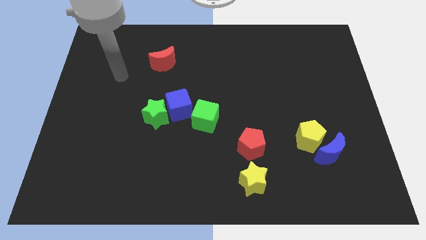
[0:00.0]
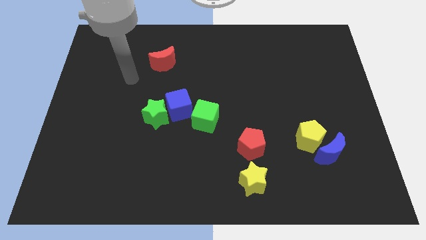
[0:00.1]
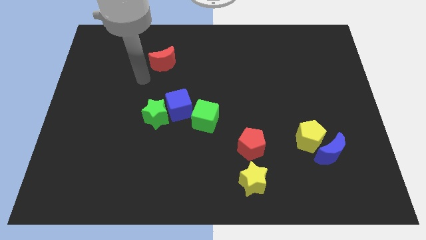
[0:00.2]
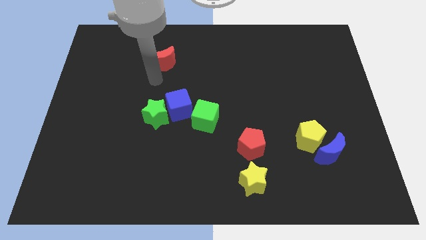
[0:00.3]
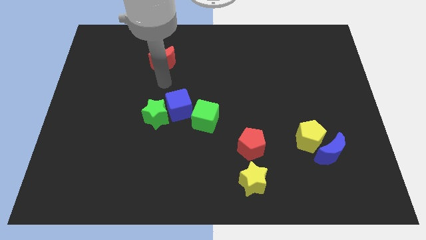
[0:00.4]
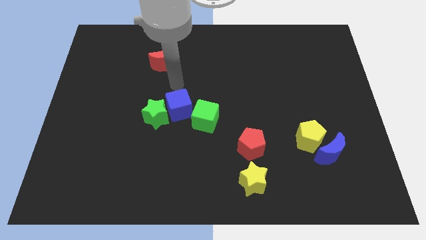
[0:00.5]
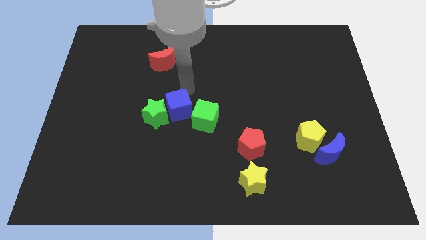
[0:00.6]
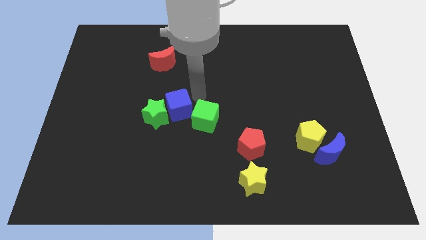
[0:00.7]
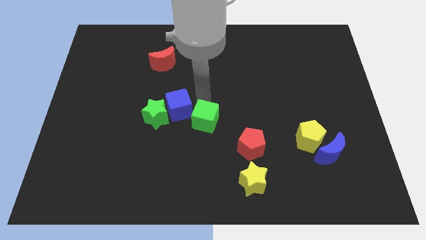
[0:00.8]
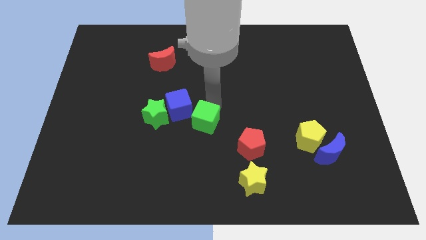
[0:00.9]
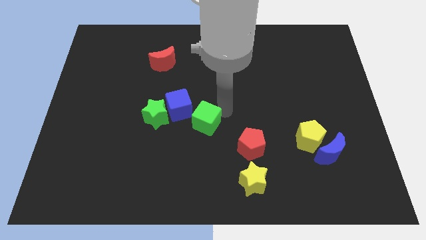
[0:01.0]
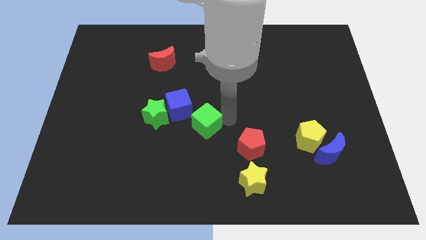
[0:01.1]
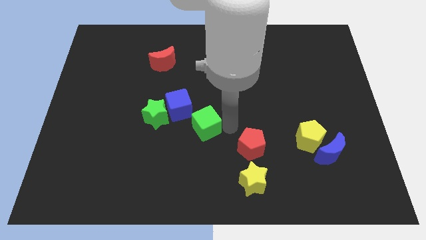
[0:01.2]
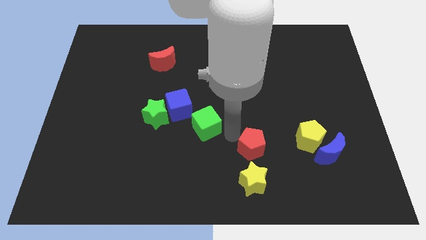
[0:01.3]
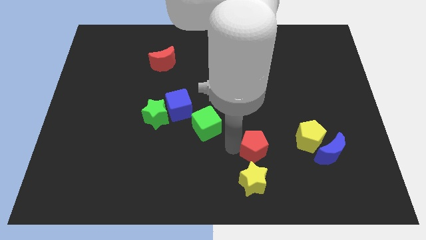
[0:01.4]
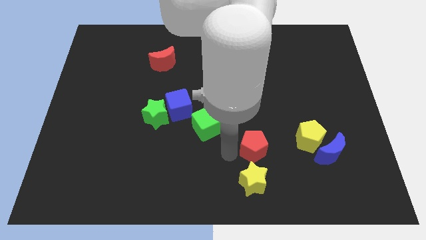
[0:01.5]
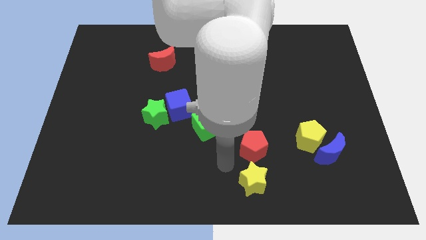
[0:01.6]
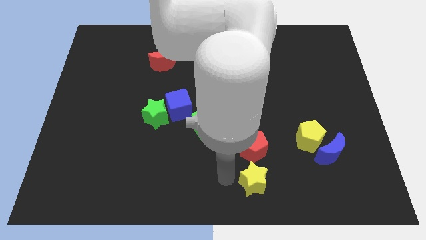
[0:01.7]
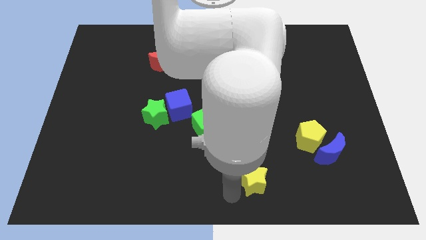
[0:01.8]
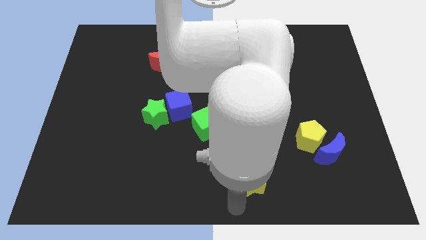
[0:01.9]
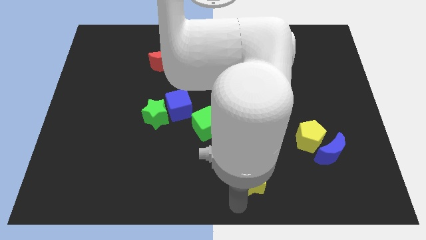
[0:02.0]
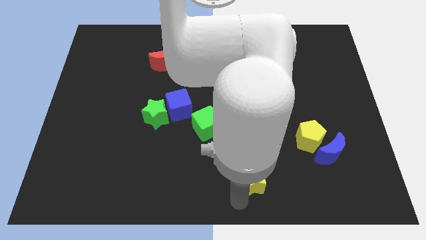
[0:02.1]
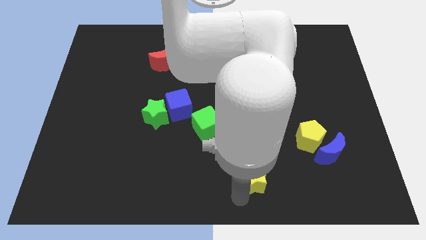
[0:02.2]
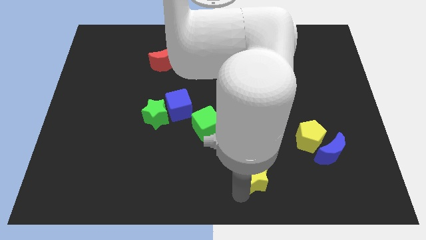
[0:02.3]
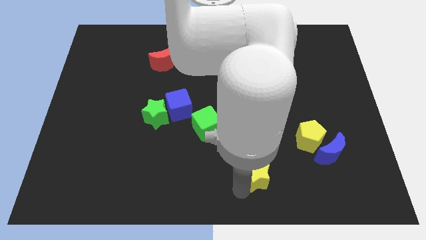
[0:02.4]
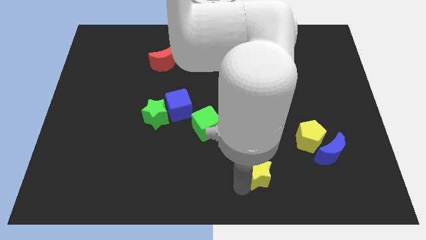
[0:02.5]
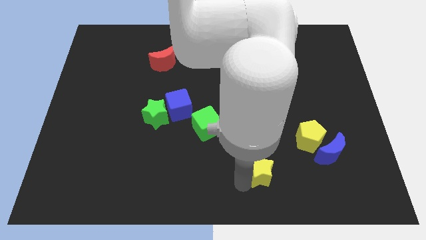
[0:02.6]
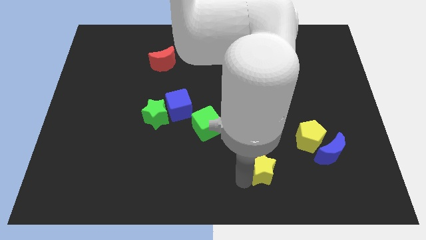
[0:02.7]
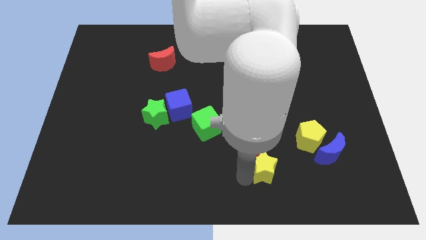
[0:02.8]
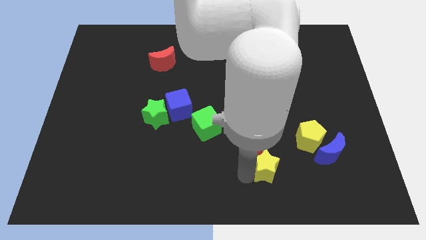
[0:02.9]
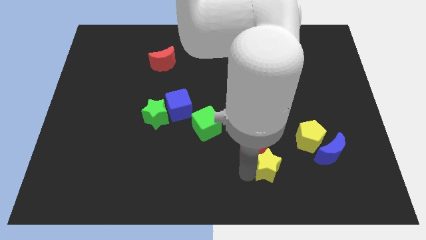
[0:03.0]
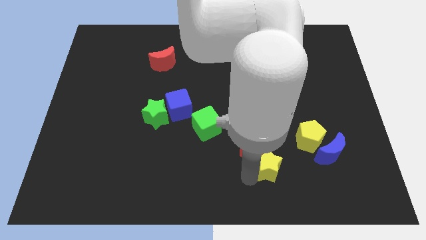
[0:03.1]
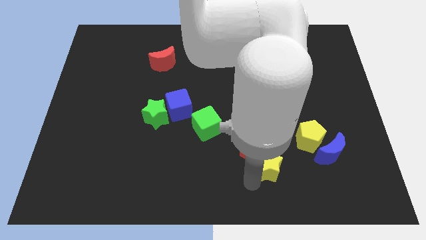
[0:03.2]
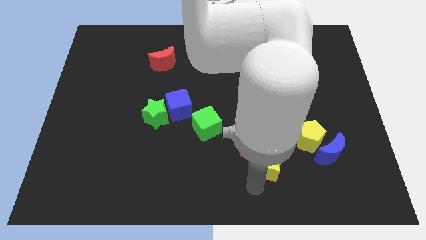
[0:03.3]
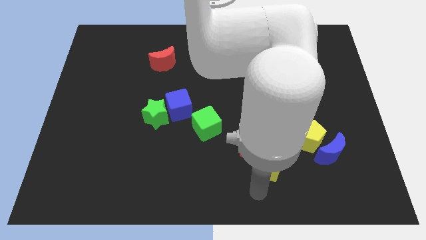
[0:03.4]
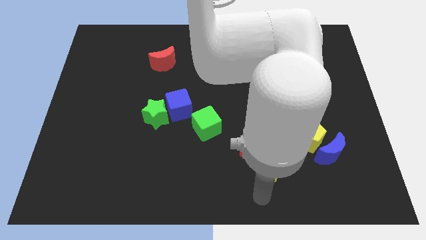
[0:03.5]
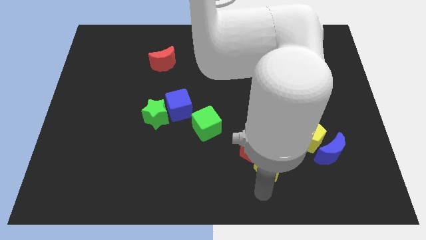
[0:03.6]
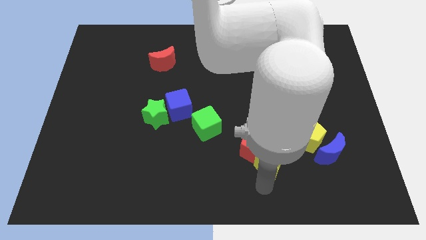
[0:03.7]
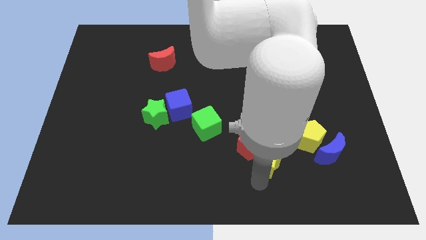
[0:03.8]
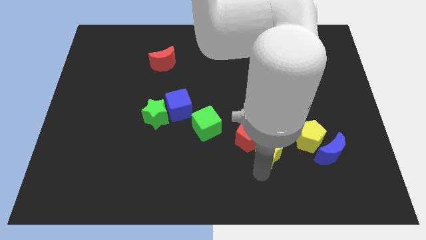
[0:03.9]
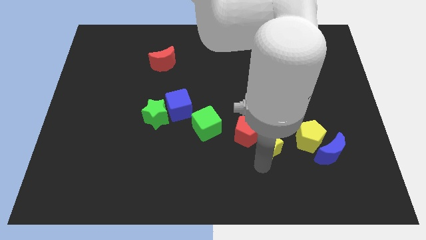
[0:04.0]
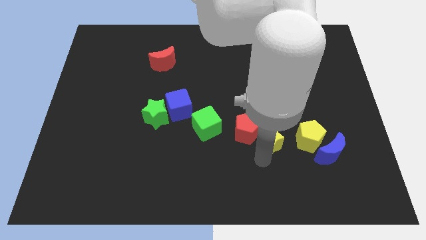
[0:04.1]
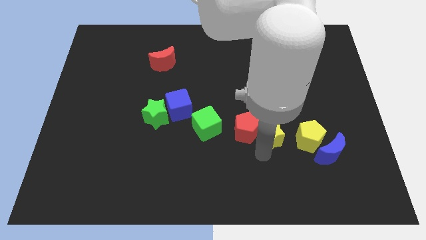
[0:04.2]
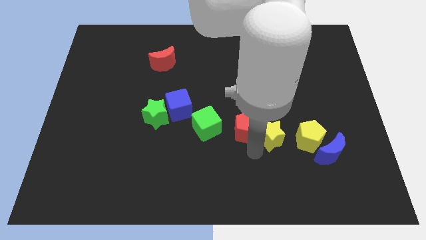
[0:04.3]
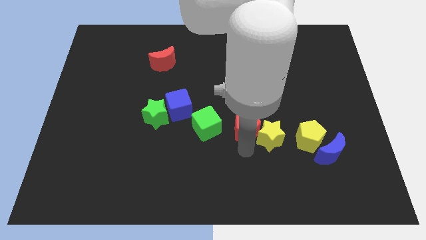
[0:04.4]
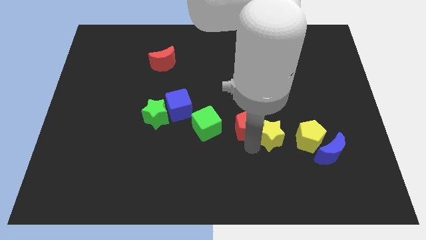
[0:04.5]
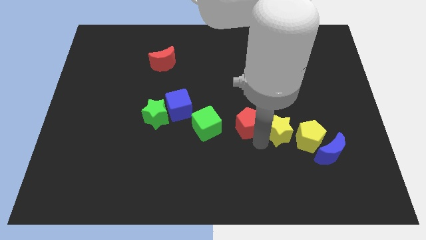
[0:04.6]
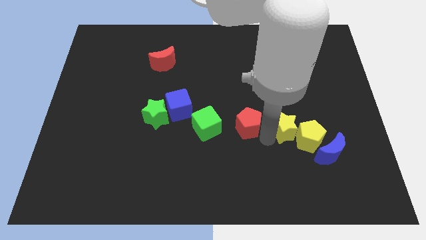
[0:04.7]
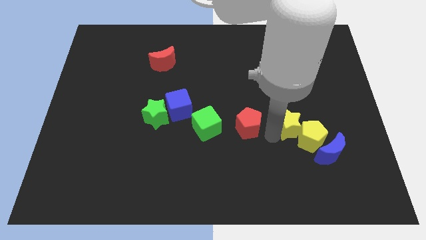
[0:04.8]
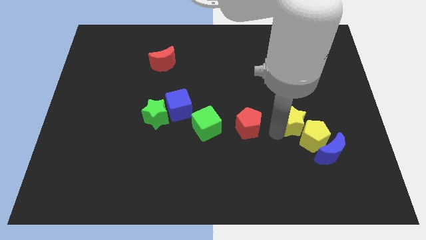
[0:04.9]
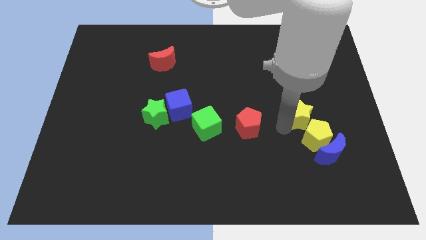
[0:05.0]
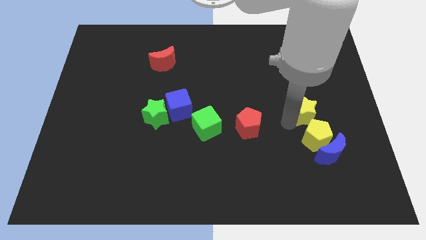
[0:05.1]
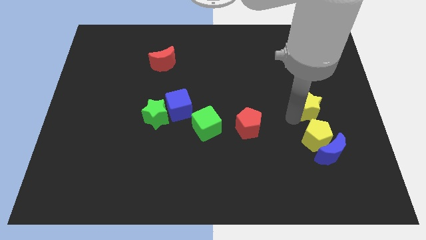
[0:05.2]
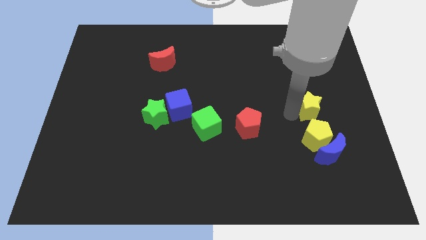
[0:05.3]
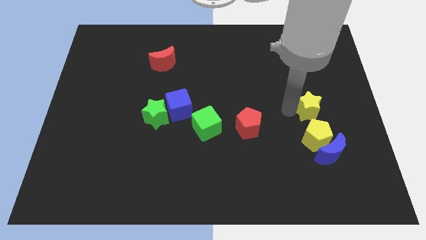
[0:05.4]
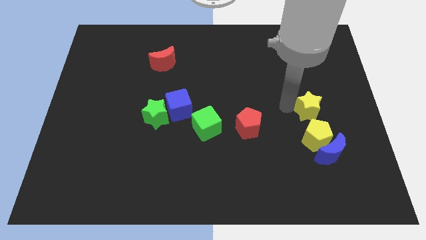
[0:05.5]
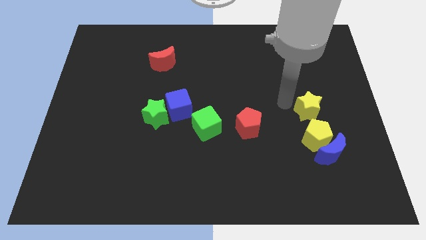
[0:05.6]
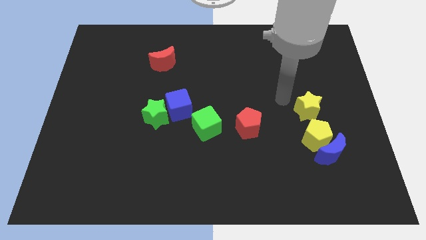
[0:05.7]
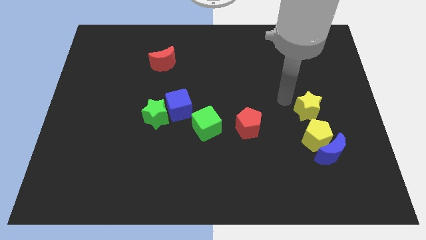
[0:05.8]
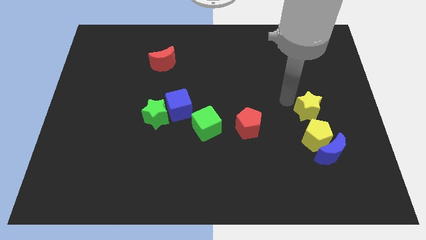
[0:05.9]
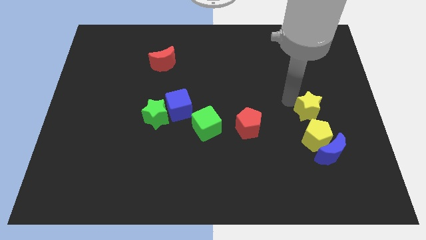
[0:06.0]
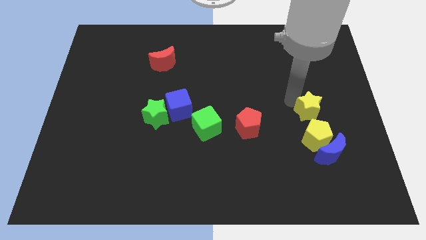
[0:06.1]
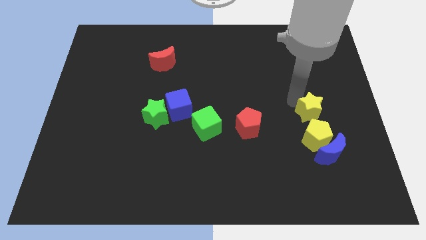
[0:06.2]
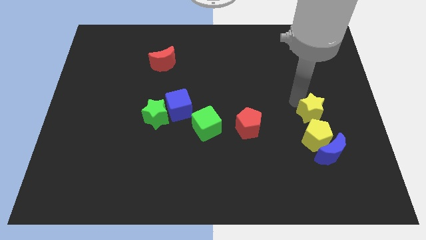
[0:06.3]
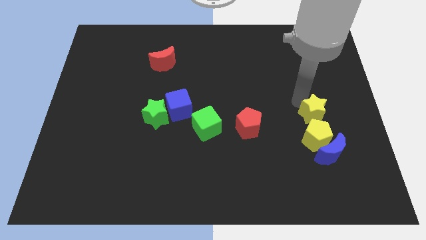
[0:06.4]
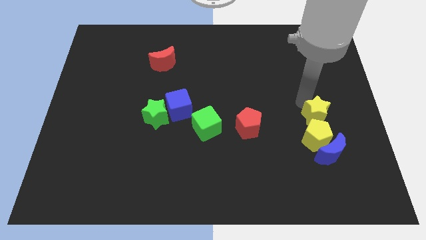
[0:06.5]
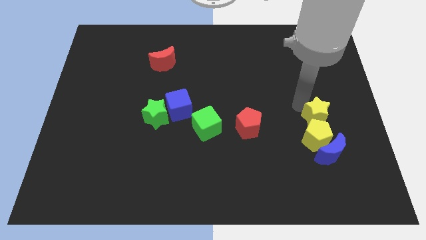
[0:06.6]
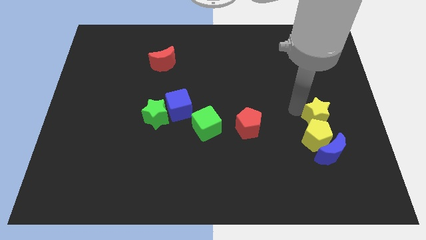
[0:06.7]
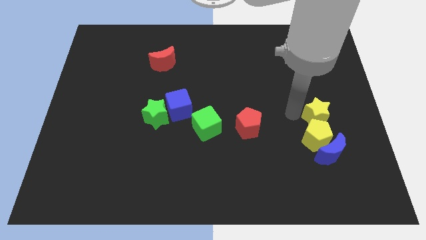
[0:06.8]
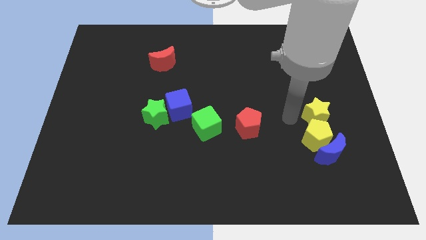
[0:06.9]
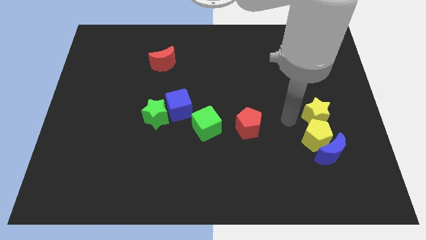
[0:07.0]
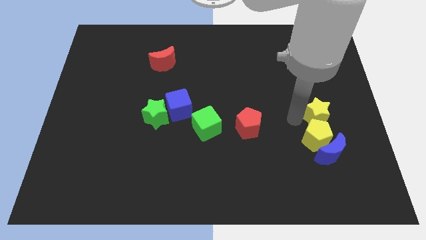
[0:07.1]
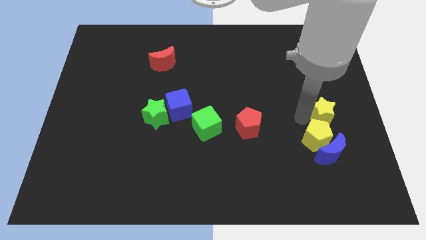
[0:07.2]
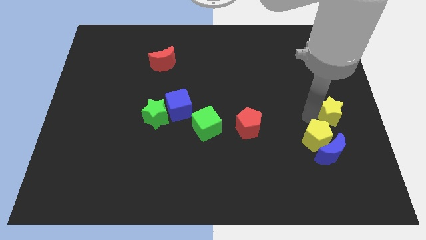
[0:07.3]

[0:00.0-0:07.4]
put the yellow star to the right side
